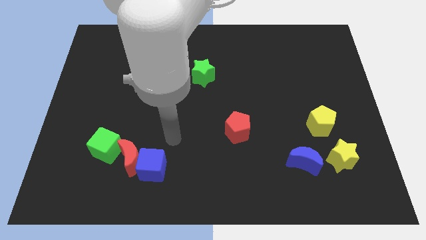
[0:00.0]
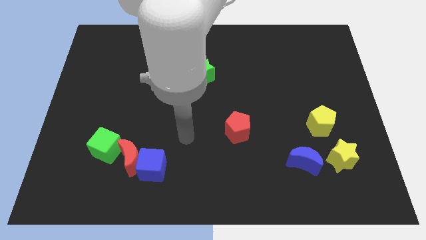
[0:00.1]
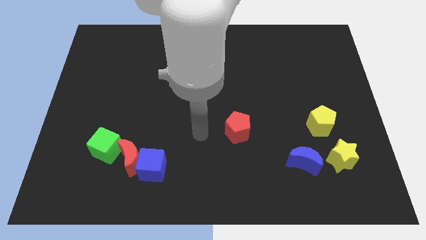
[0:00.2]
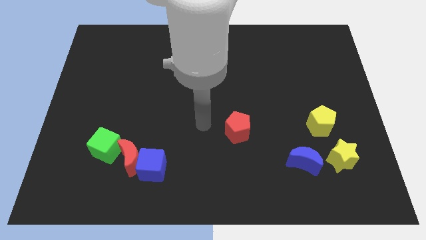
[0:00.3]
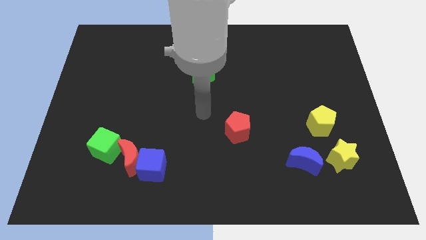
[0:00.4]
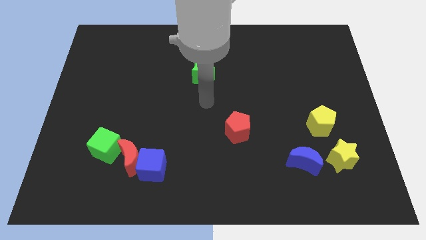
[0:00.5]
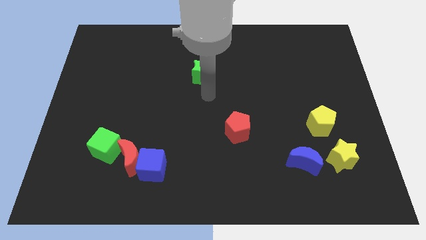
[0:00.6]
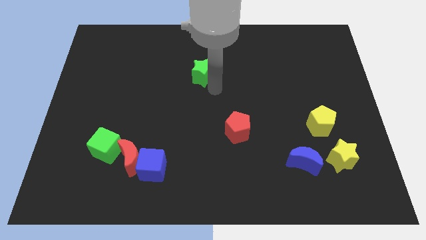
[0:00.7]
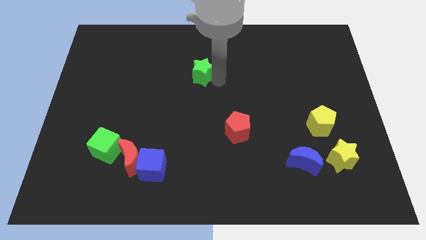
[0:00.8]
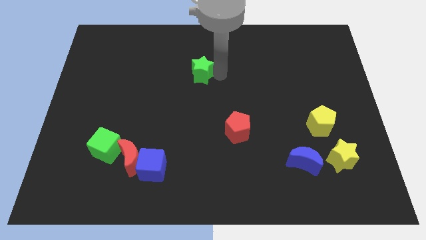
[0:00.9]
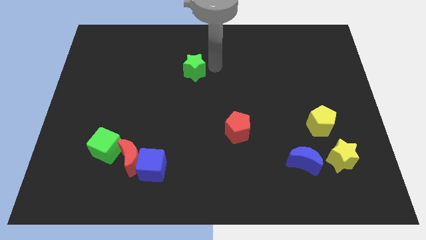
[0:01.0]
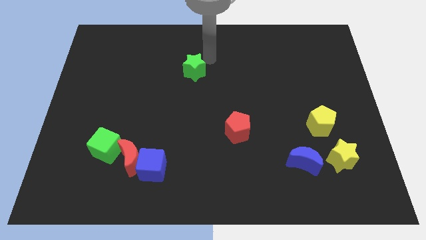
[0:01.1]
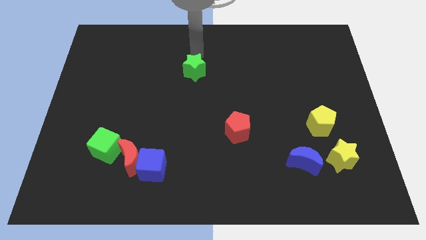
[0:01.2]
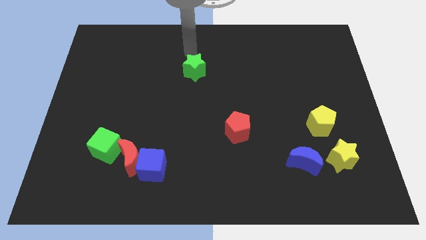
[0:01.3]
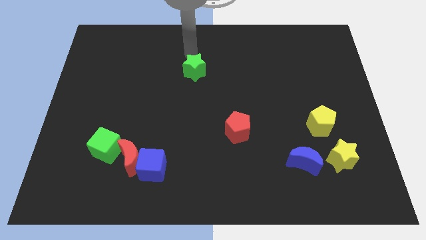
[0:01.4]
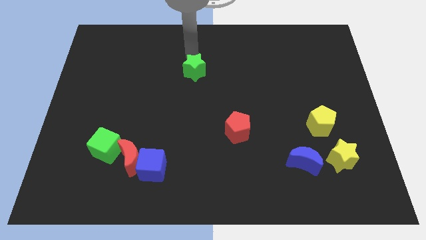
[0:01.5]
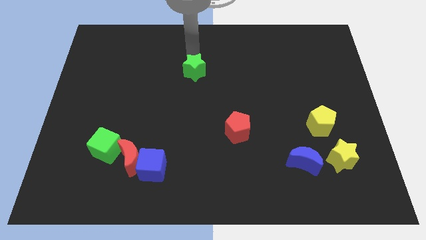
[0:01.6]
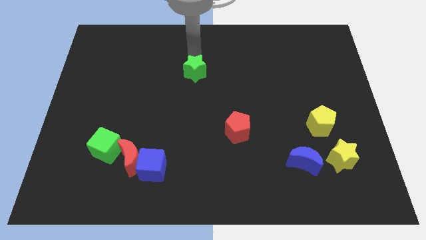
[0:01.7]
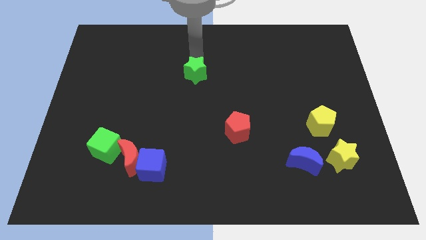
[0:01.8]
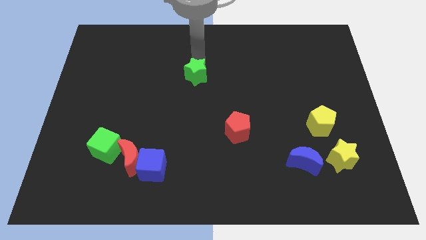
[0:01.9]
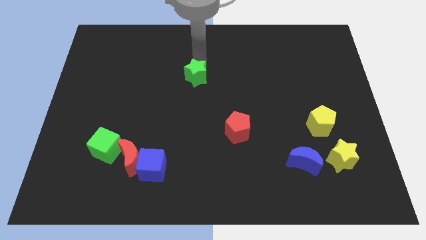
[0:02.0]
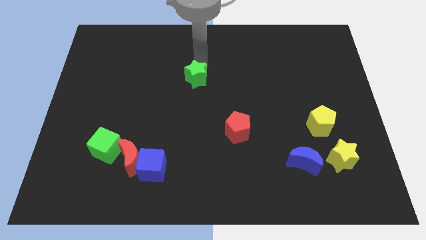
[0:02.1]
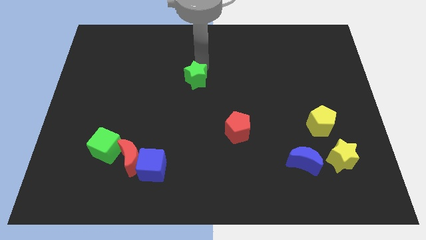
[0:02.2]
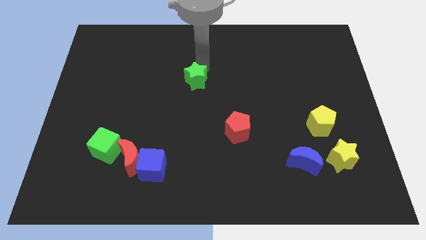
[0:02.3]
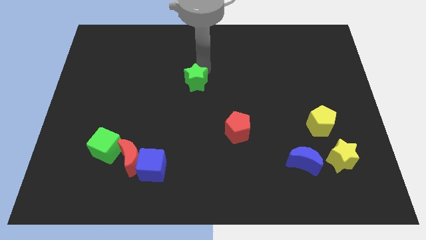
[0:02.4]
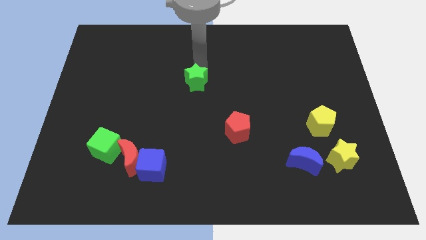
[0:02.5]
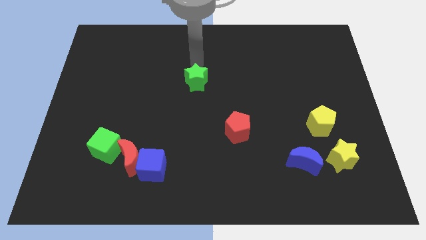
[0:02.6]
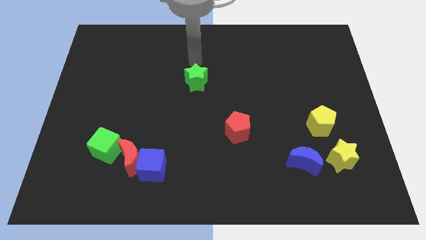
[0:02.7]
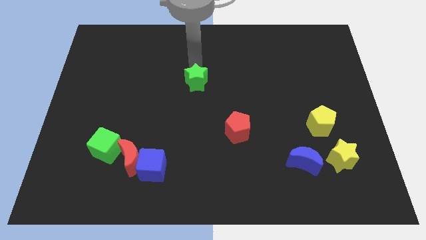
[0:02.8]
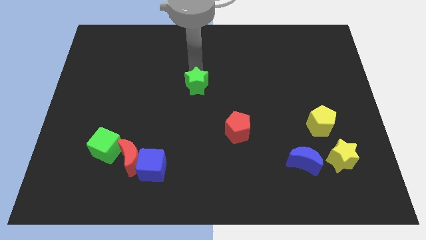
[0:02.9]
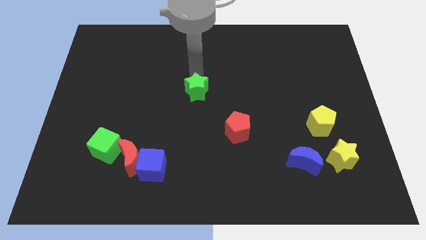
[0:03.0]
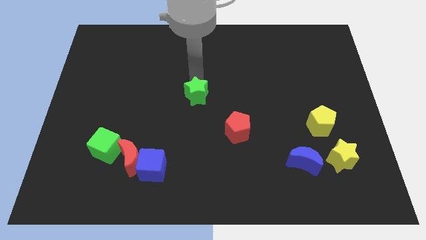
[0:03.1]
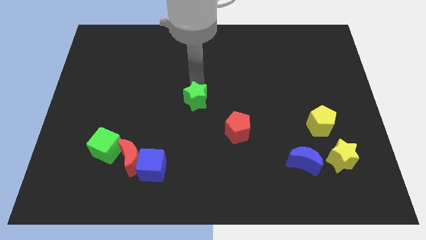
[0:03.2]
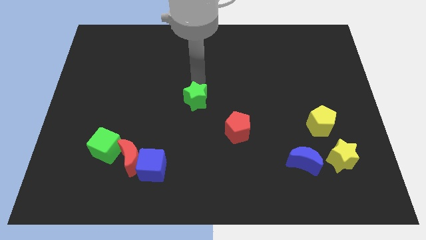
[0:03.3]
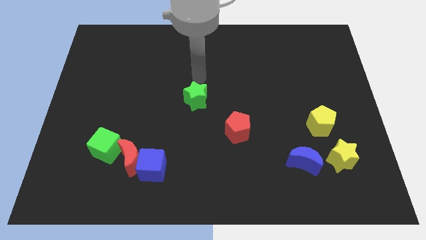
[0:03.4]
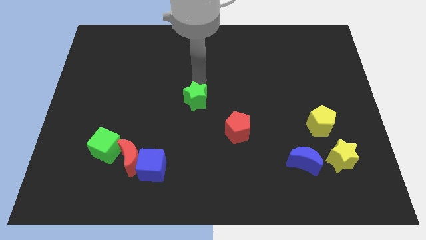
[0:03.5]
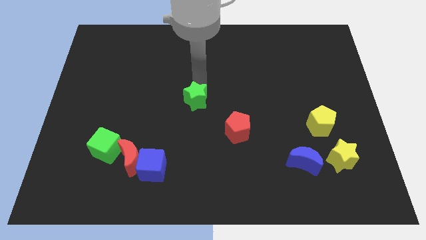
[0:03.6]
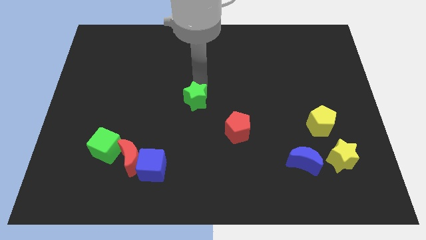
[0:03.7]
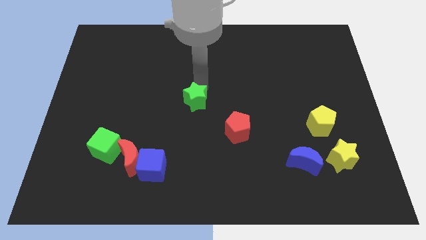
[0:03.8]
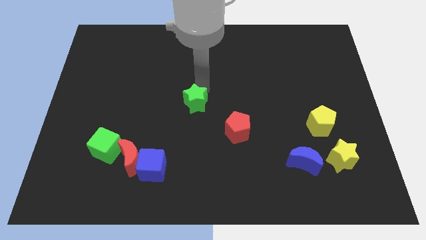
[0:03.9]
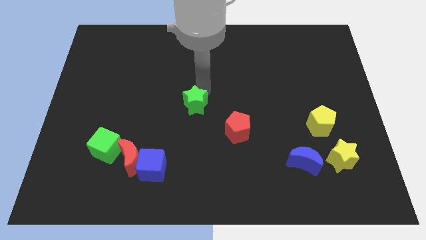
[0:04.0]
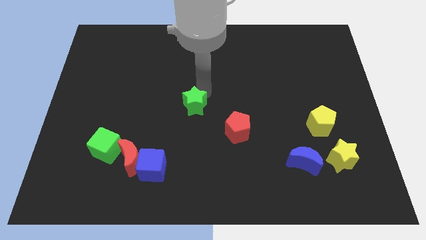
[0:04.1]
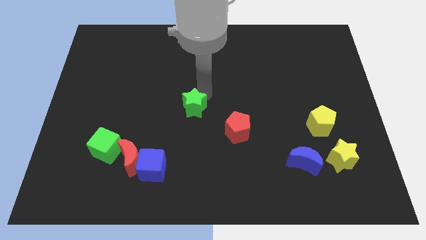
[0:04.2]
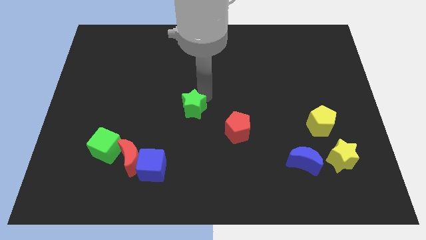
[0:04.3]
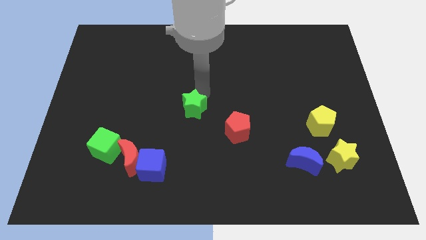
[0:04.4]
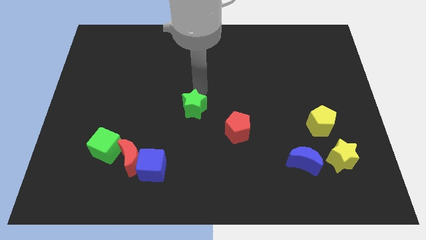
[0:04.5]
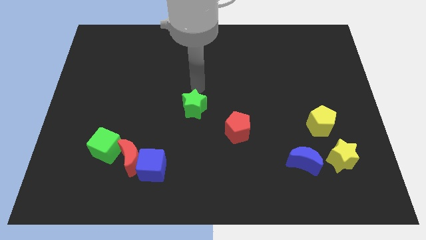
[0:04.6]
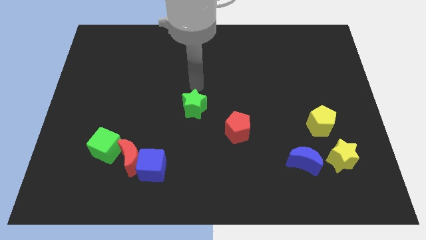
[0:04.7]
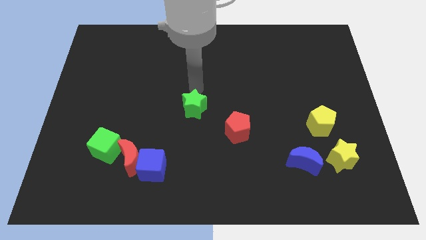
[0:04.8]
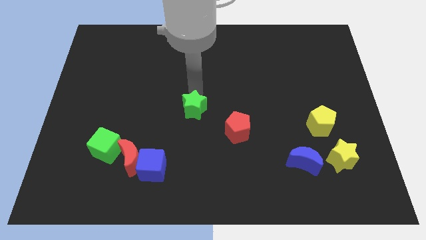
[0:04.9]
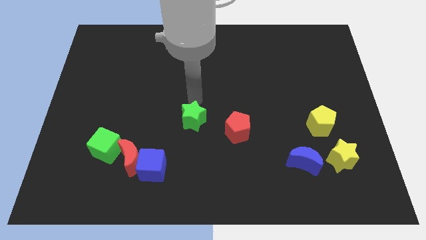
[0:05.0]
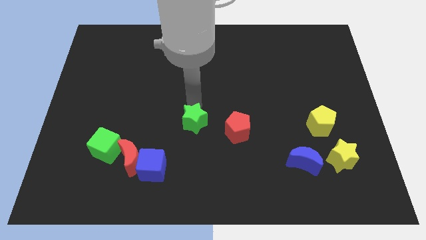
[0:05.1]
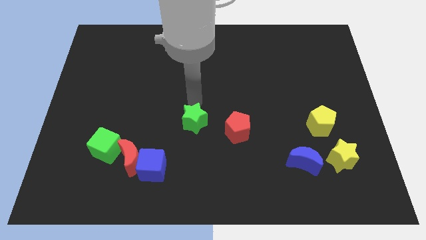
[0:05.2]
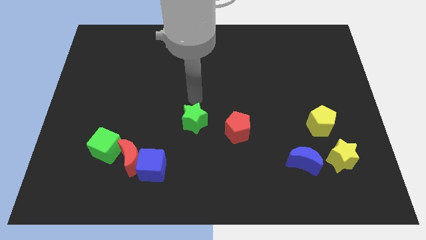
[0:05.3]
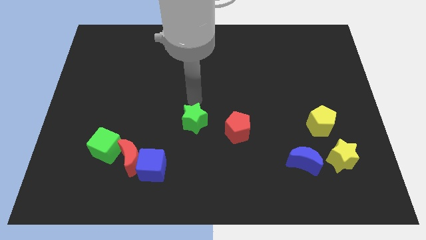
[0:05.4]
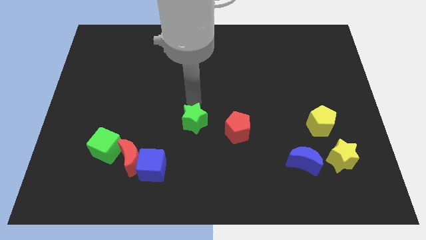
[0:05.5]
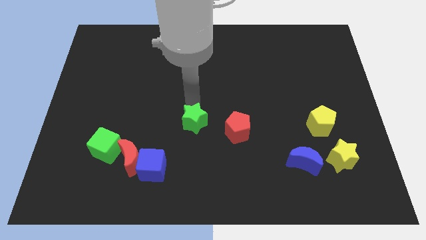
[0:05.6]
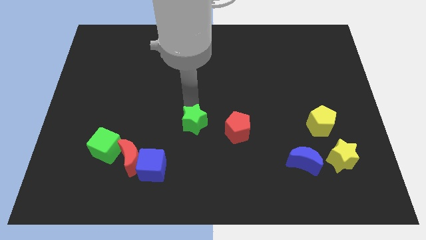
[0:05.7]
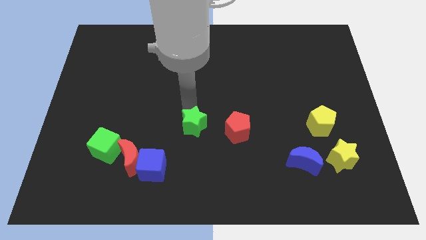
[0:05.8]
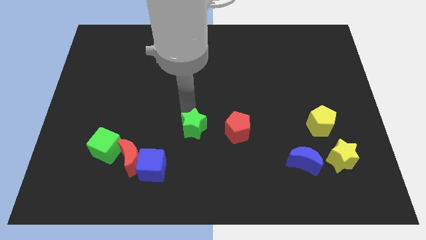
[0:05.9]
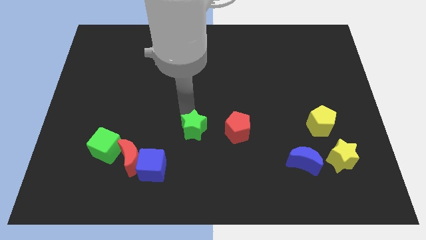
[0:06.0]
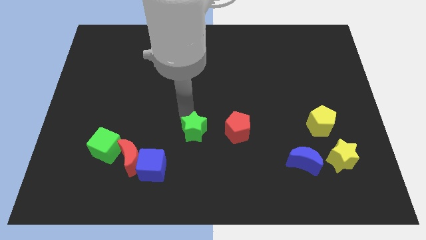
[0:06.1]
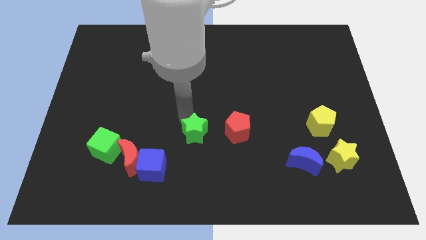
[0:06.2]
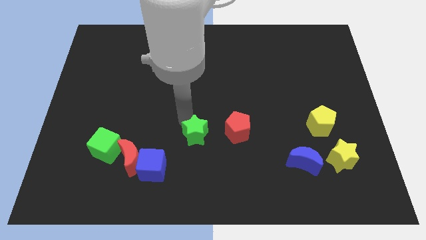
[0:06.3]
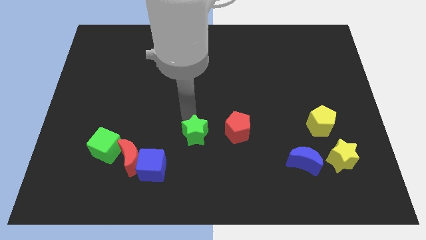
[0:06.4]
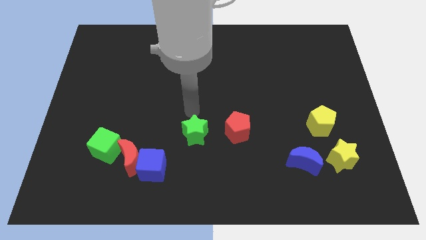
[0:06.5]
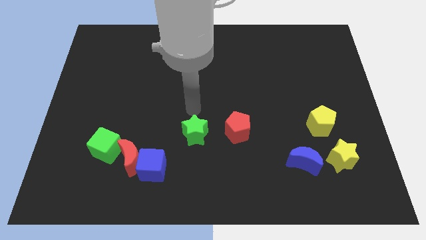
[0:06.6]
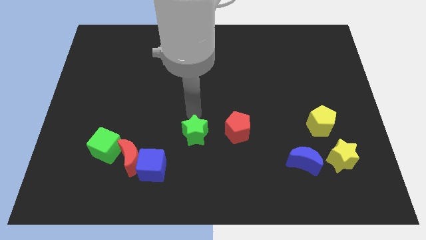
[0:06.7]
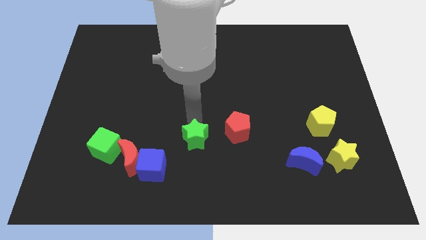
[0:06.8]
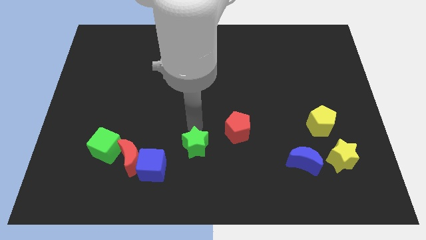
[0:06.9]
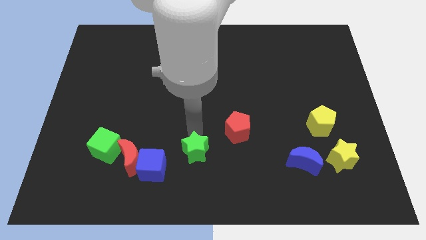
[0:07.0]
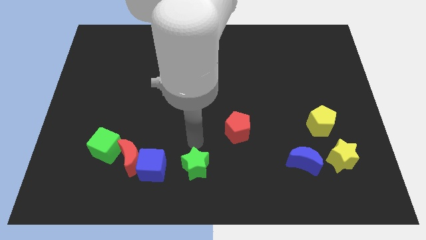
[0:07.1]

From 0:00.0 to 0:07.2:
slide the green star to the bottom
